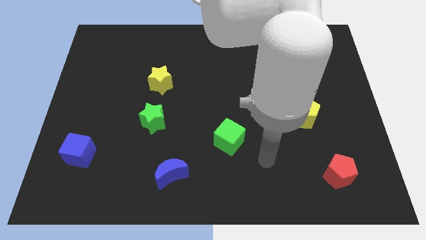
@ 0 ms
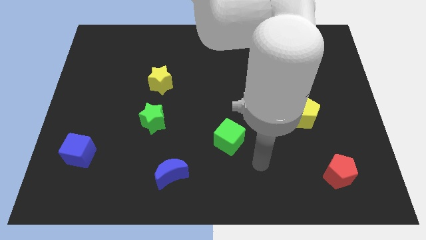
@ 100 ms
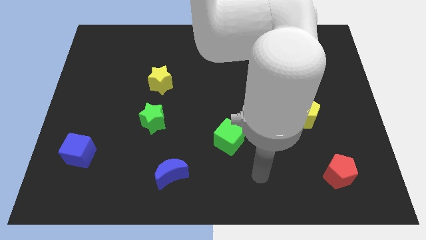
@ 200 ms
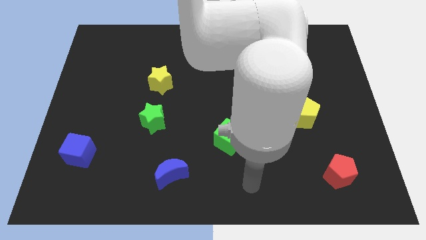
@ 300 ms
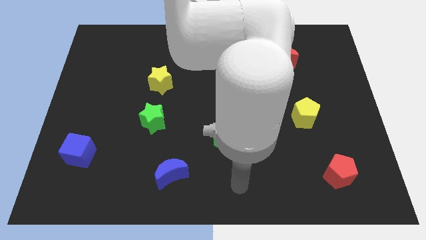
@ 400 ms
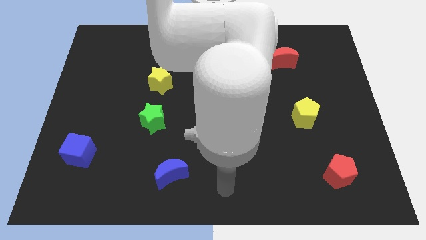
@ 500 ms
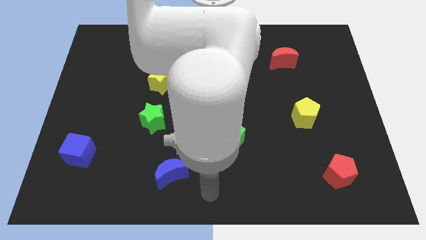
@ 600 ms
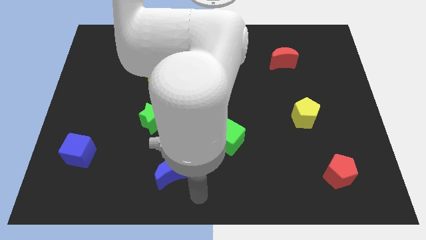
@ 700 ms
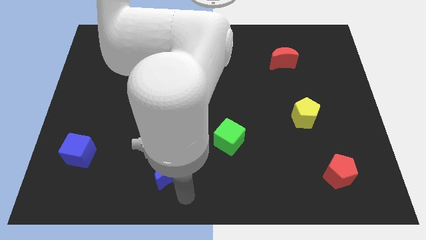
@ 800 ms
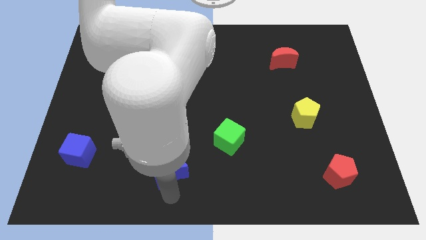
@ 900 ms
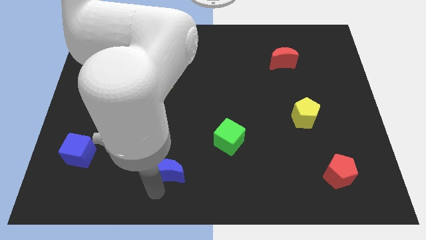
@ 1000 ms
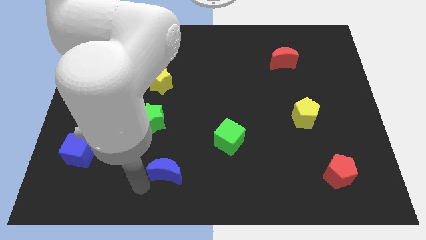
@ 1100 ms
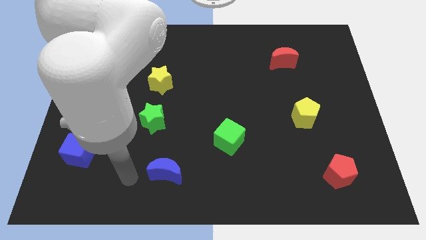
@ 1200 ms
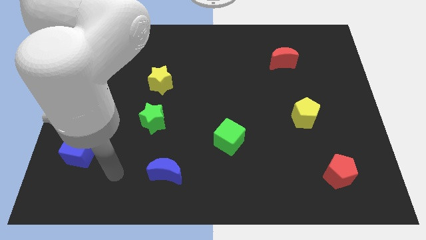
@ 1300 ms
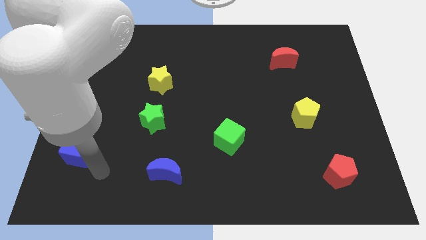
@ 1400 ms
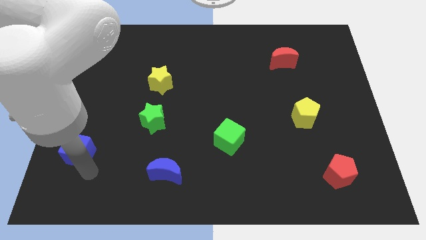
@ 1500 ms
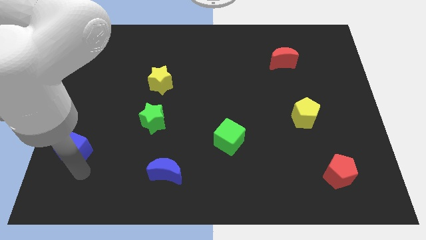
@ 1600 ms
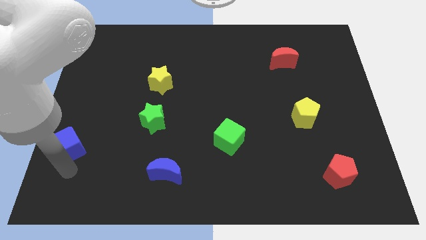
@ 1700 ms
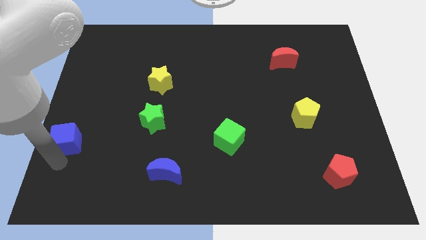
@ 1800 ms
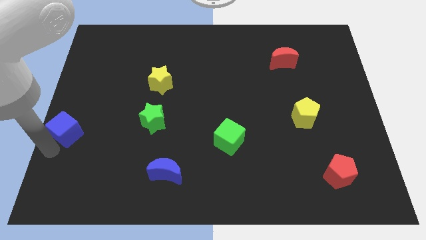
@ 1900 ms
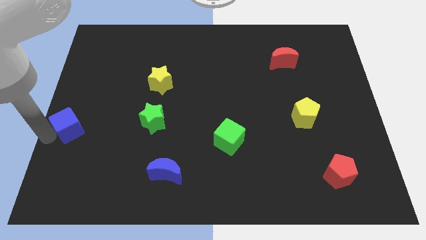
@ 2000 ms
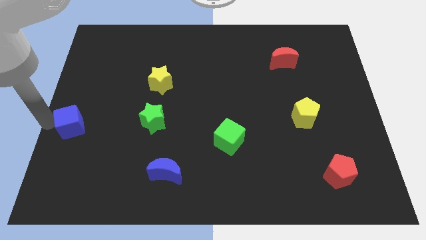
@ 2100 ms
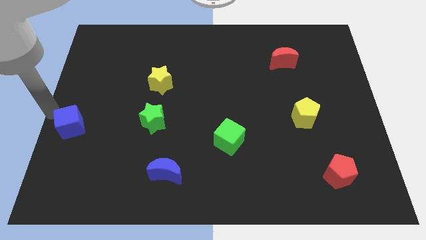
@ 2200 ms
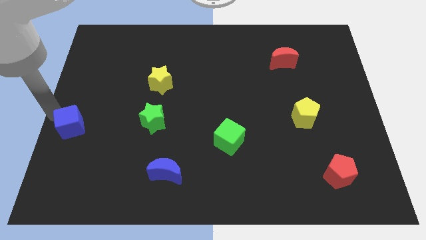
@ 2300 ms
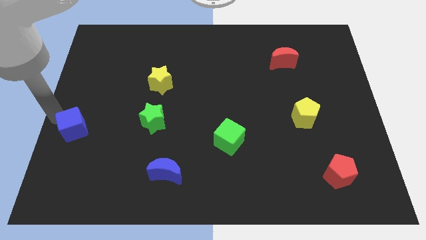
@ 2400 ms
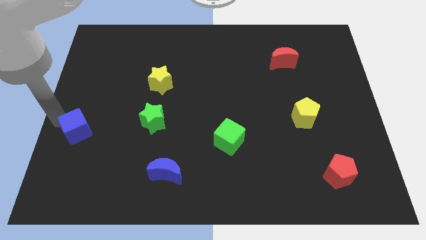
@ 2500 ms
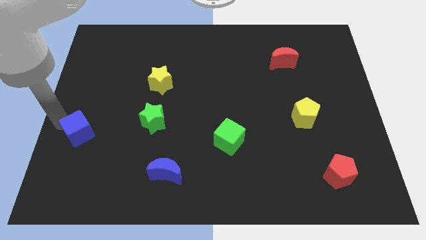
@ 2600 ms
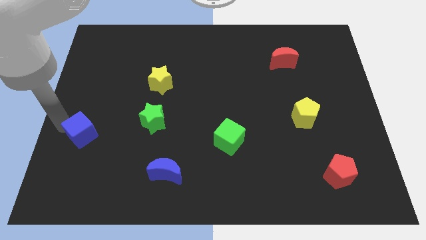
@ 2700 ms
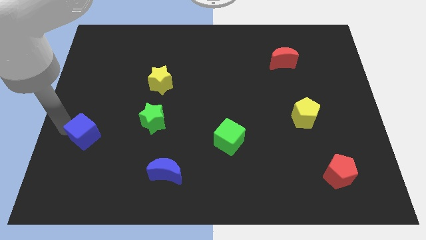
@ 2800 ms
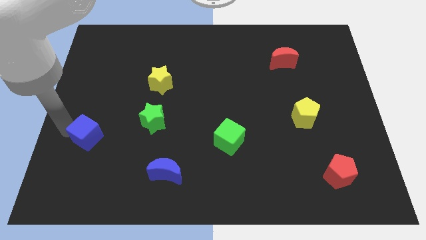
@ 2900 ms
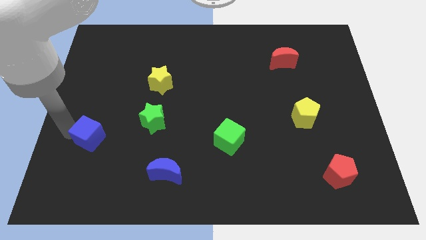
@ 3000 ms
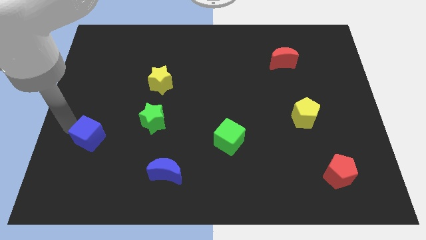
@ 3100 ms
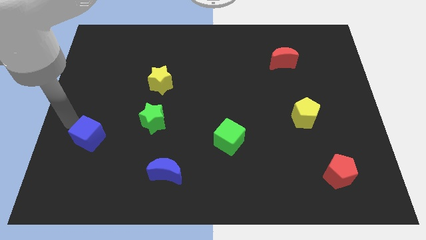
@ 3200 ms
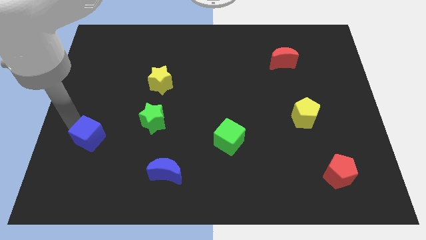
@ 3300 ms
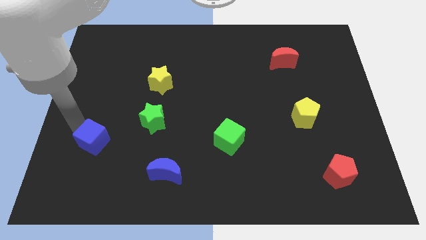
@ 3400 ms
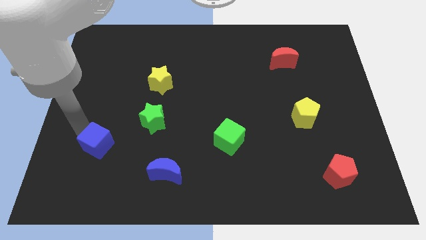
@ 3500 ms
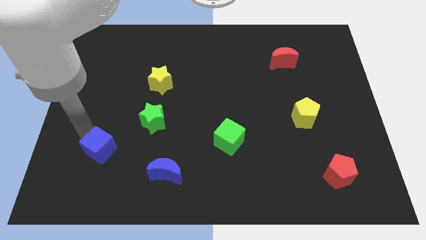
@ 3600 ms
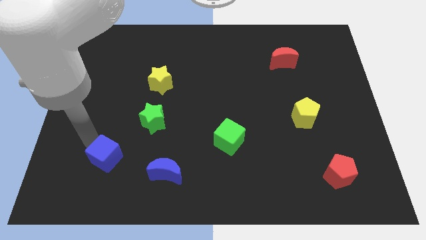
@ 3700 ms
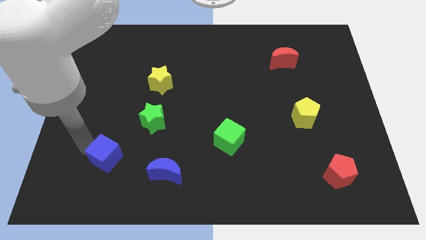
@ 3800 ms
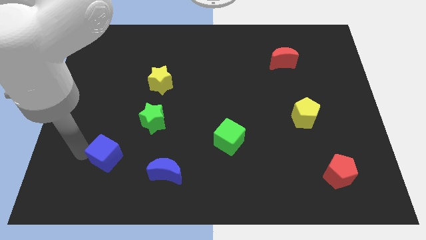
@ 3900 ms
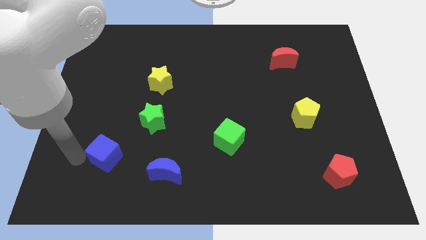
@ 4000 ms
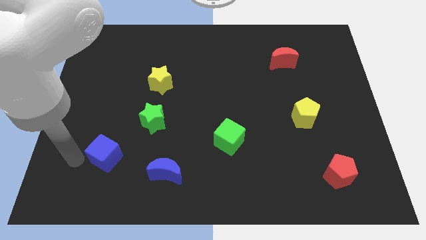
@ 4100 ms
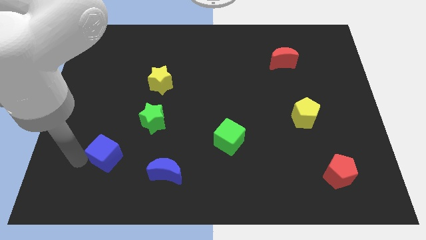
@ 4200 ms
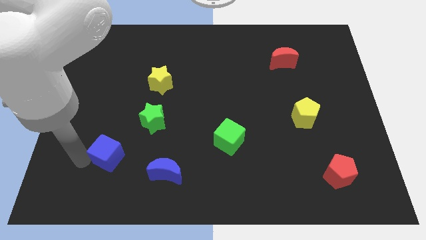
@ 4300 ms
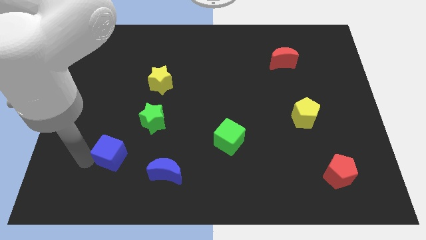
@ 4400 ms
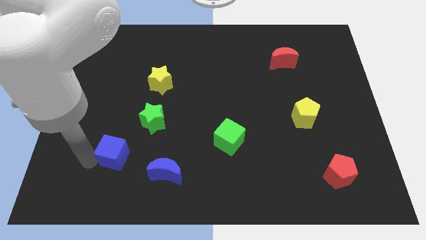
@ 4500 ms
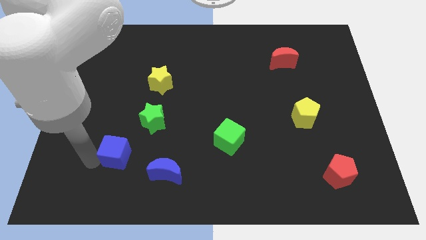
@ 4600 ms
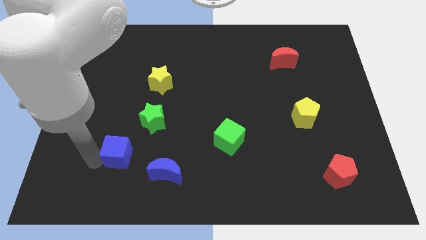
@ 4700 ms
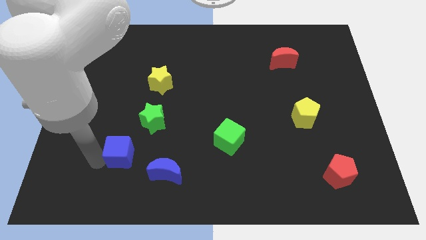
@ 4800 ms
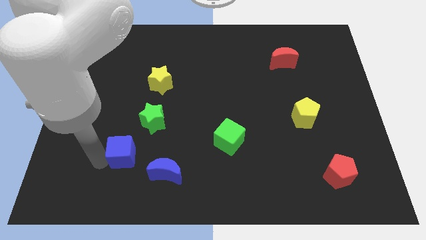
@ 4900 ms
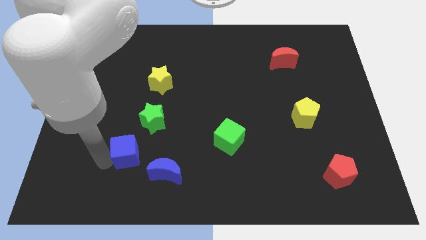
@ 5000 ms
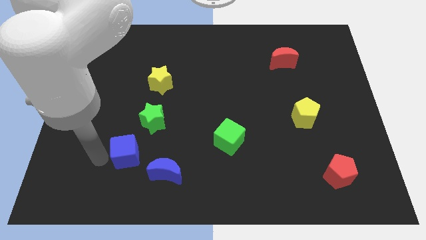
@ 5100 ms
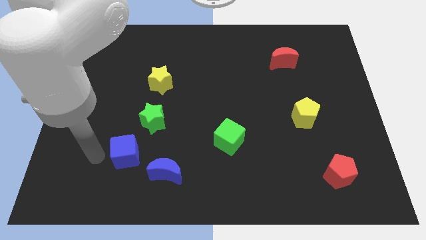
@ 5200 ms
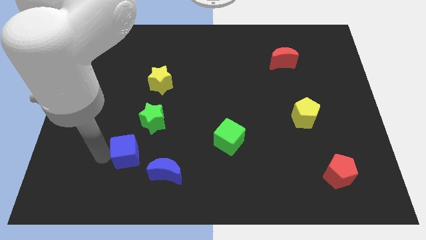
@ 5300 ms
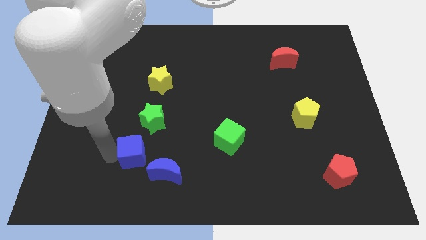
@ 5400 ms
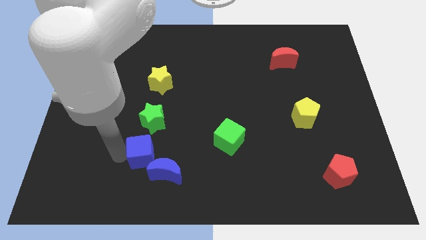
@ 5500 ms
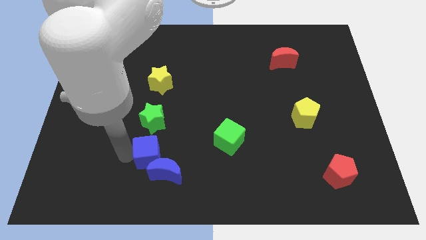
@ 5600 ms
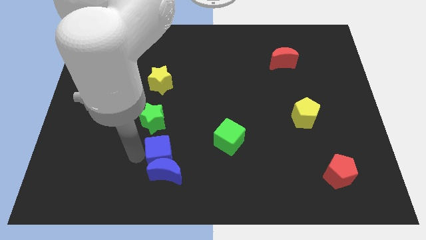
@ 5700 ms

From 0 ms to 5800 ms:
slide the blue cube to the top right of the blue moon

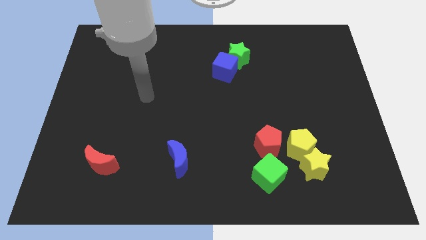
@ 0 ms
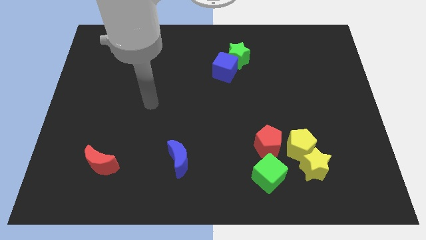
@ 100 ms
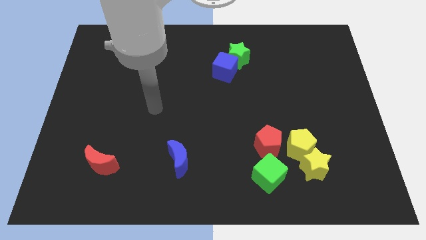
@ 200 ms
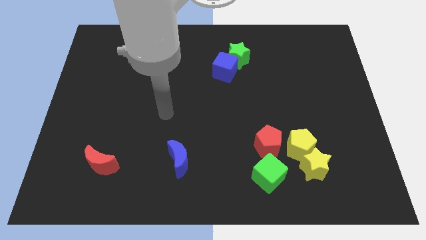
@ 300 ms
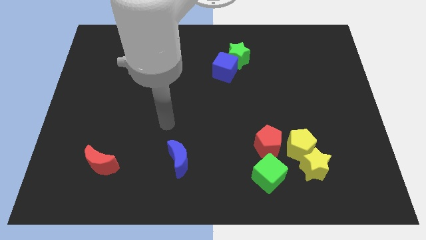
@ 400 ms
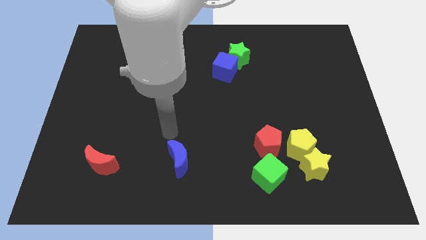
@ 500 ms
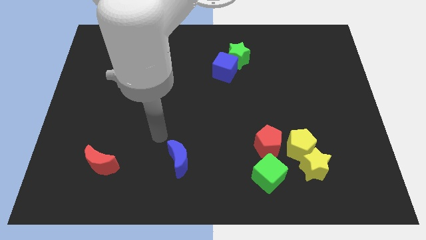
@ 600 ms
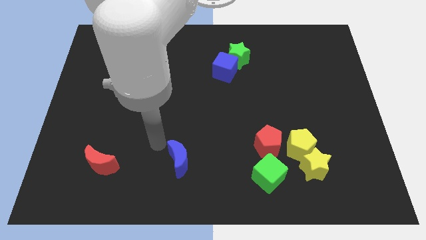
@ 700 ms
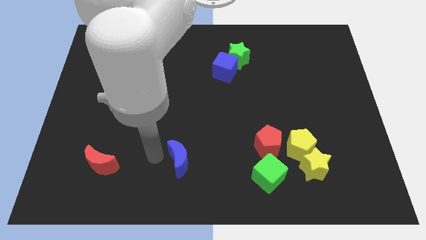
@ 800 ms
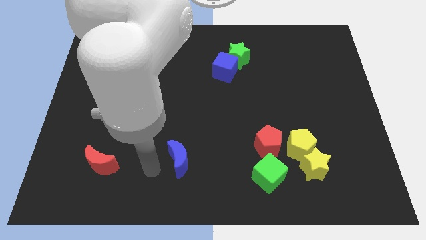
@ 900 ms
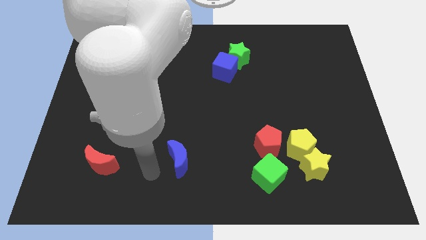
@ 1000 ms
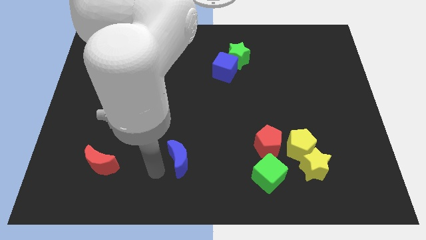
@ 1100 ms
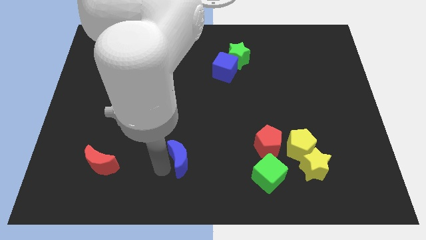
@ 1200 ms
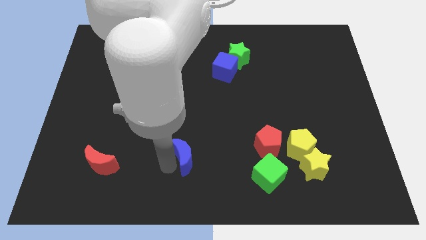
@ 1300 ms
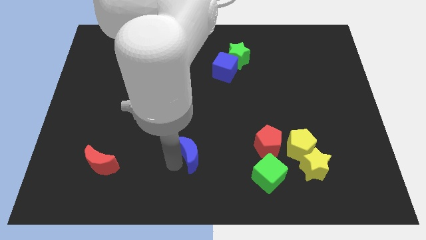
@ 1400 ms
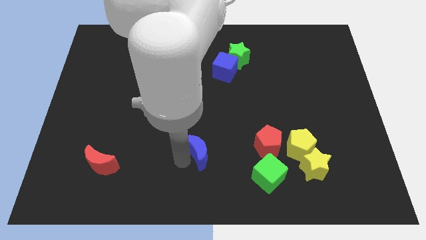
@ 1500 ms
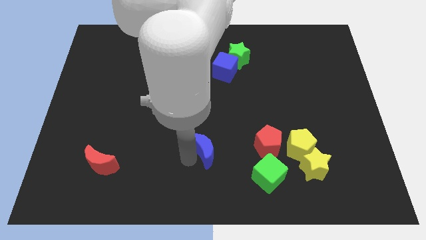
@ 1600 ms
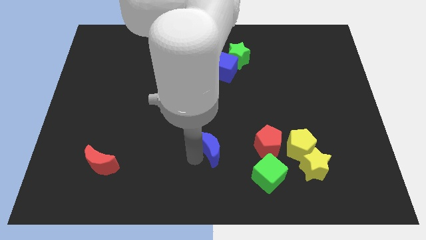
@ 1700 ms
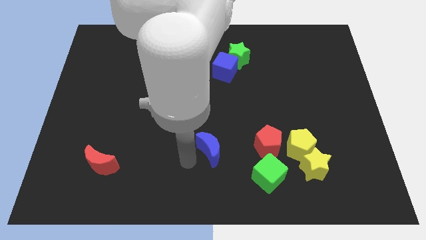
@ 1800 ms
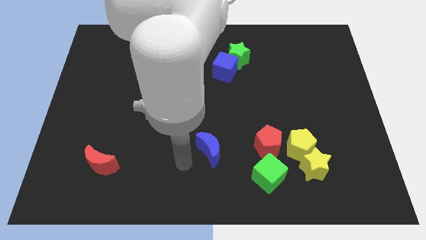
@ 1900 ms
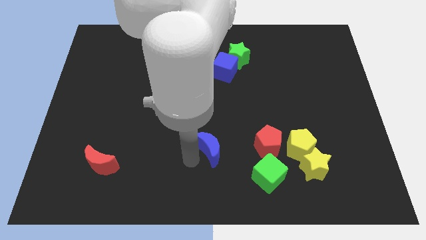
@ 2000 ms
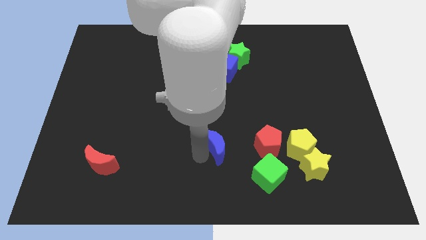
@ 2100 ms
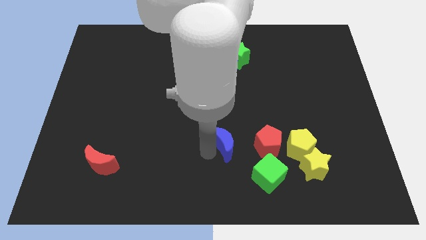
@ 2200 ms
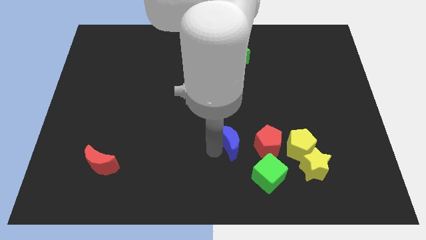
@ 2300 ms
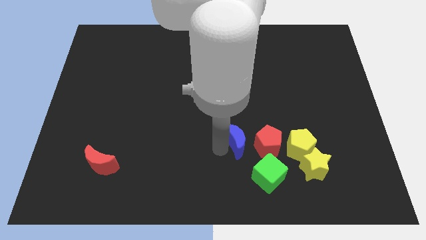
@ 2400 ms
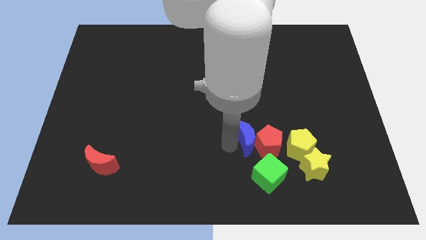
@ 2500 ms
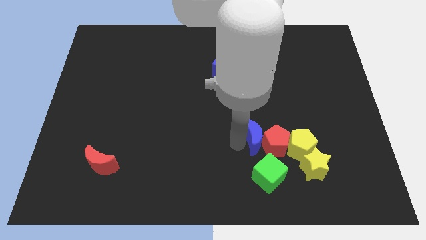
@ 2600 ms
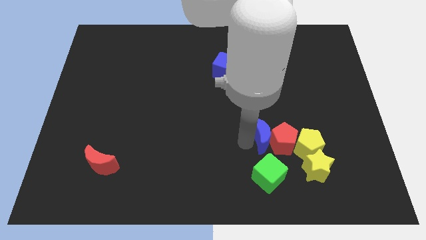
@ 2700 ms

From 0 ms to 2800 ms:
put the blue moon diagonally up and to the left of the yellow pentagon
